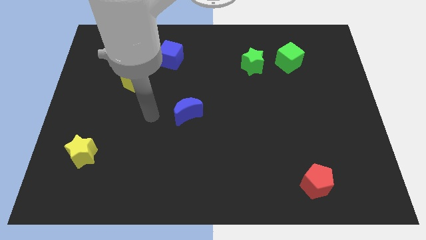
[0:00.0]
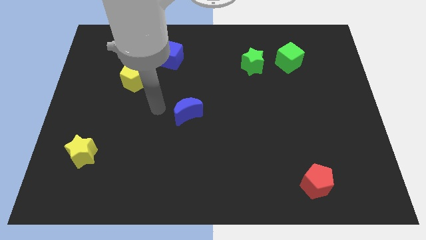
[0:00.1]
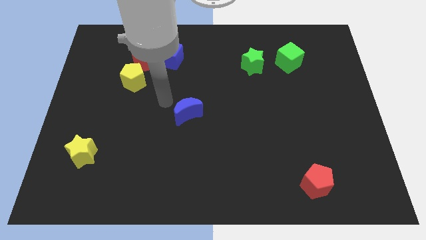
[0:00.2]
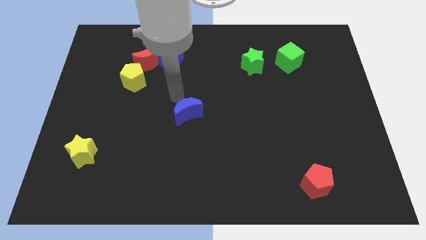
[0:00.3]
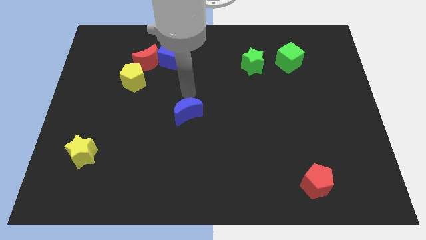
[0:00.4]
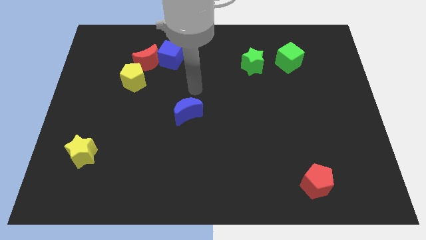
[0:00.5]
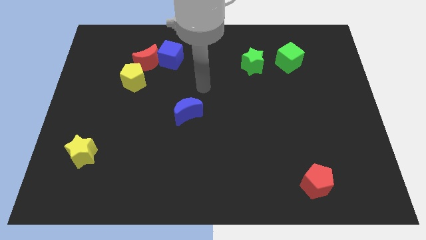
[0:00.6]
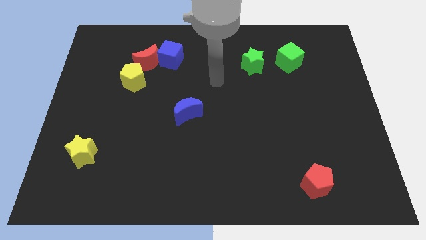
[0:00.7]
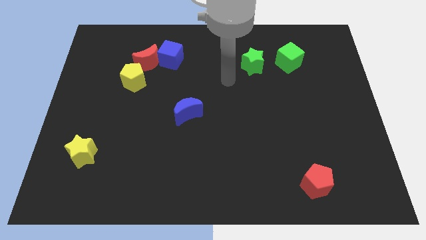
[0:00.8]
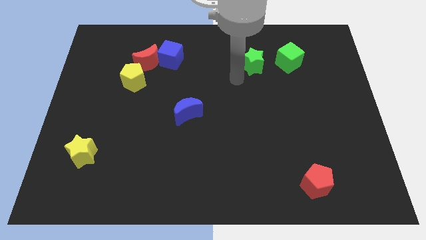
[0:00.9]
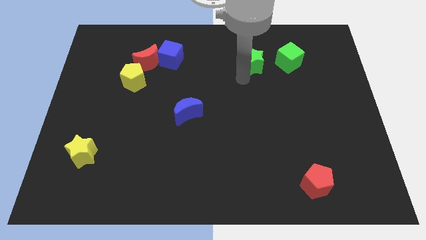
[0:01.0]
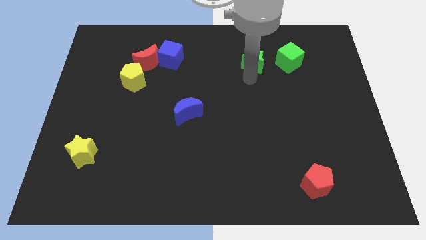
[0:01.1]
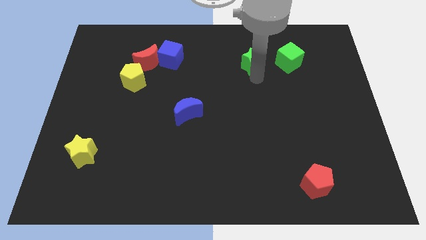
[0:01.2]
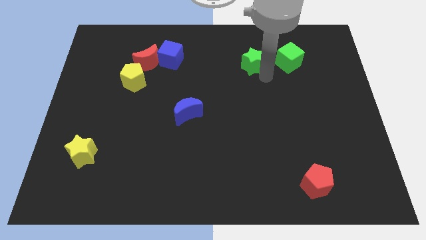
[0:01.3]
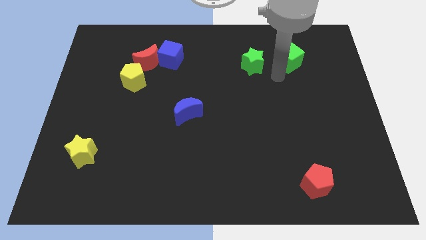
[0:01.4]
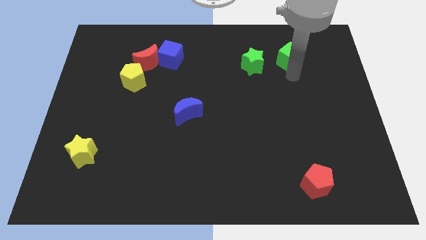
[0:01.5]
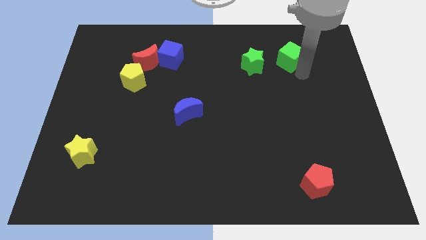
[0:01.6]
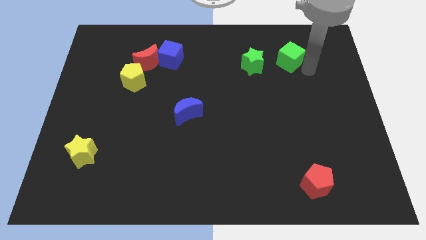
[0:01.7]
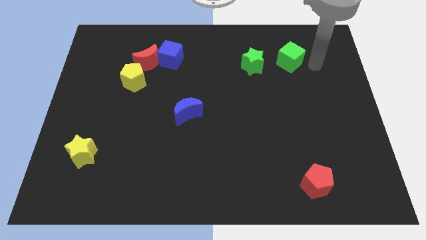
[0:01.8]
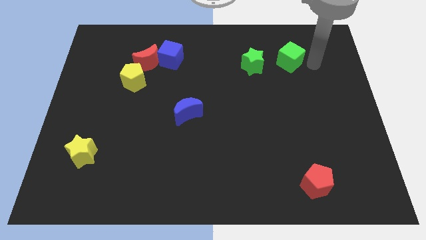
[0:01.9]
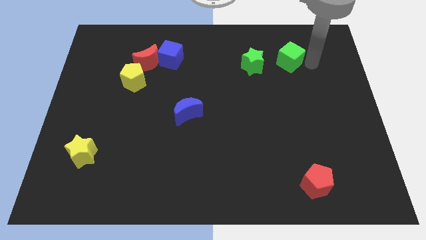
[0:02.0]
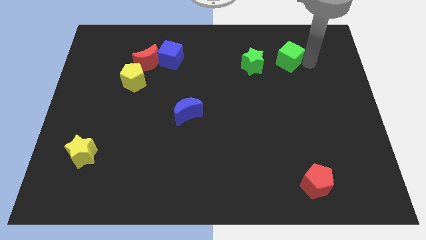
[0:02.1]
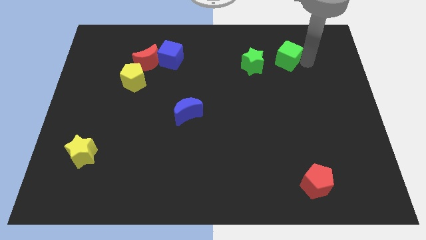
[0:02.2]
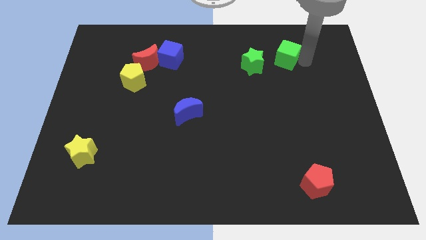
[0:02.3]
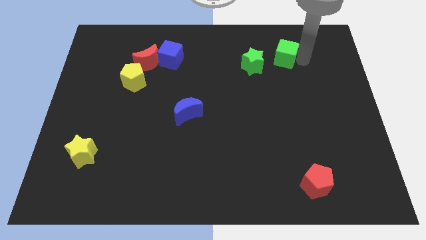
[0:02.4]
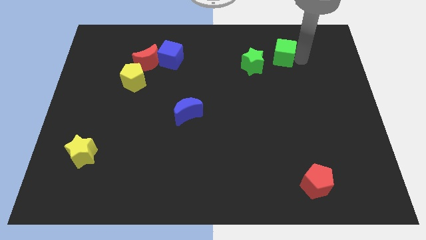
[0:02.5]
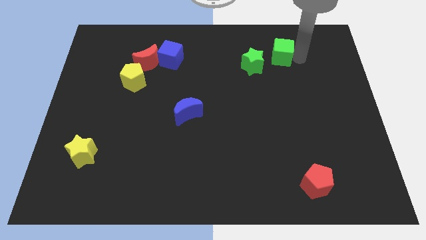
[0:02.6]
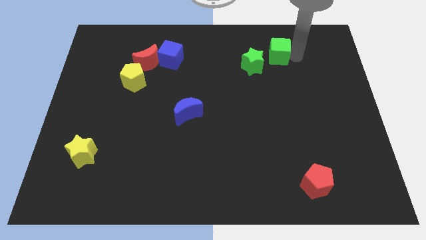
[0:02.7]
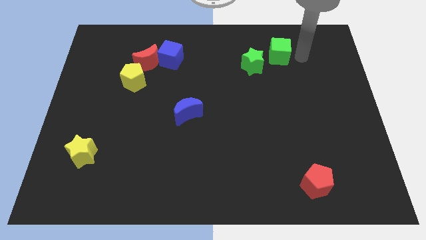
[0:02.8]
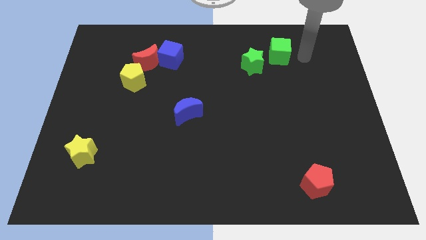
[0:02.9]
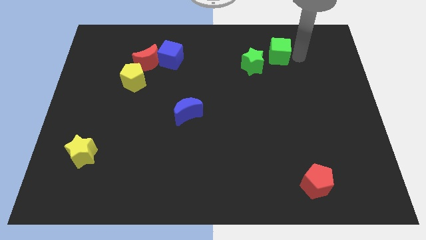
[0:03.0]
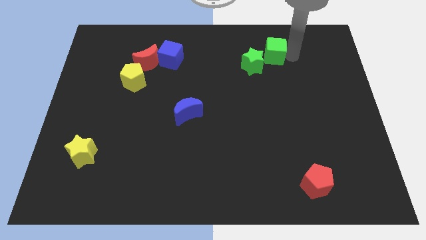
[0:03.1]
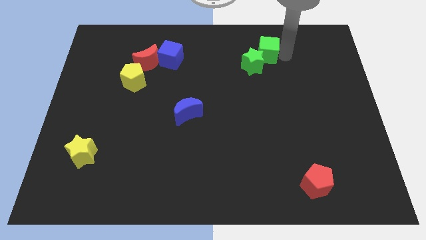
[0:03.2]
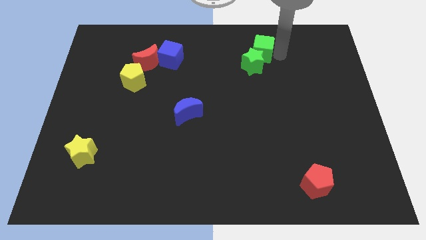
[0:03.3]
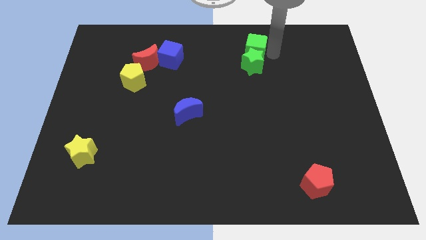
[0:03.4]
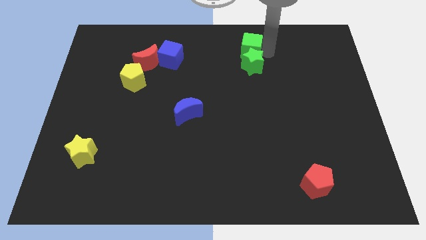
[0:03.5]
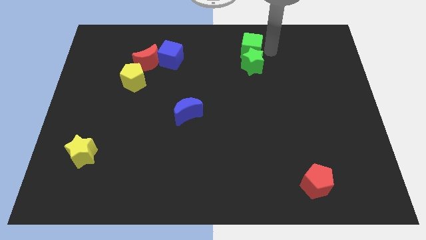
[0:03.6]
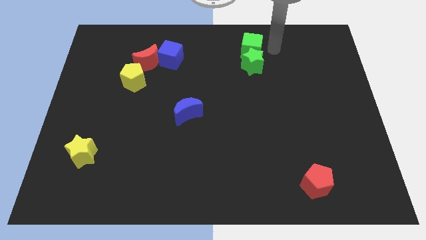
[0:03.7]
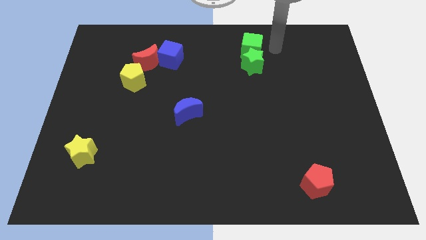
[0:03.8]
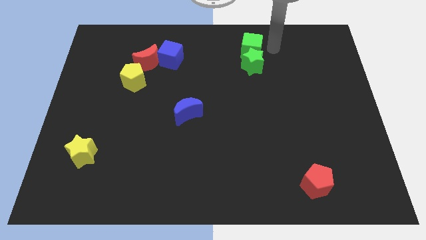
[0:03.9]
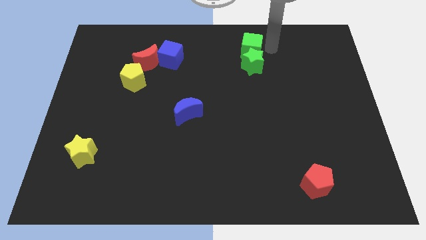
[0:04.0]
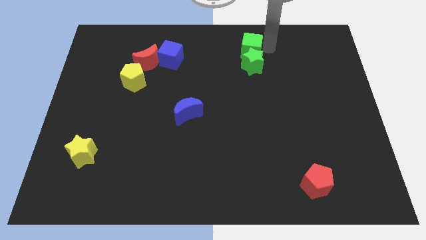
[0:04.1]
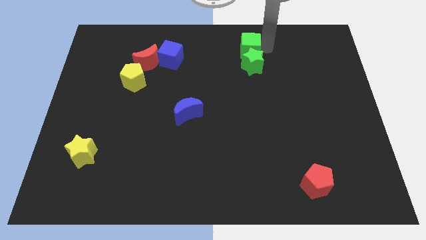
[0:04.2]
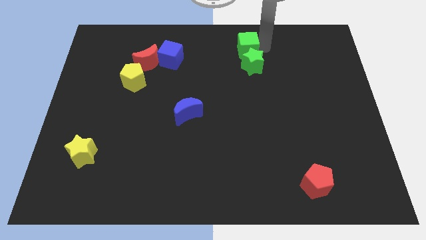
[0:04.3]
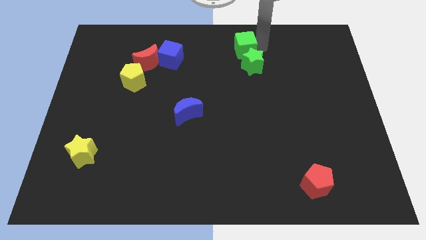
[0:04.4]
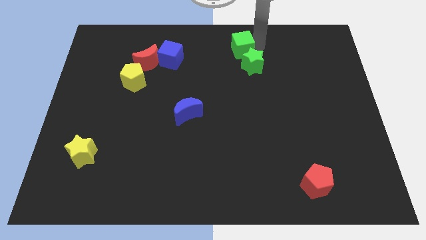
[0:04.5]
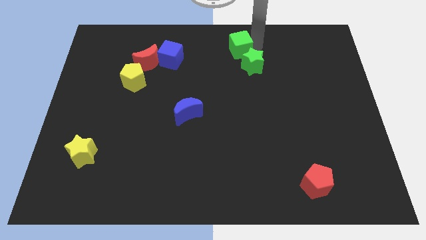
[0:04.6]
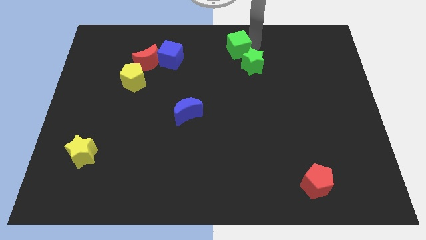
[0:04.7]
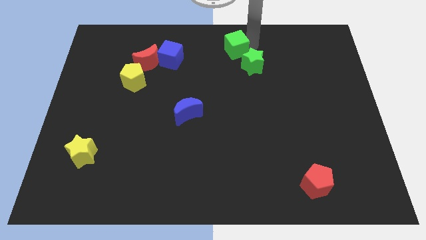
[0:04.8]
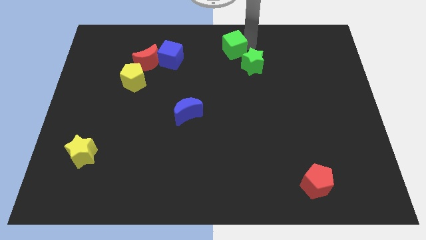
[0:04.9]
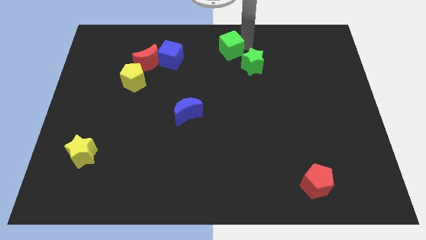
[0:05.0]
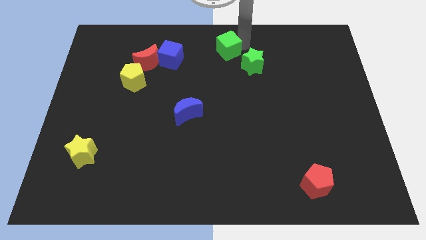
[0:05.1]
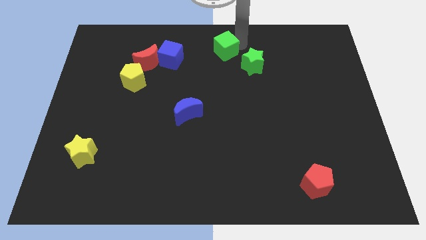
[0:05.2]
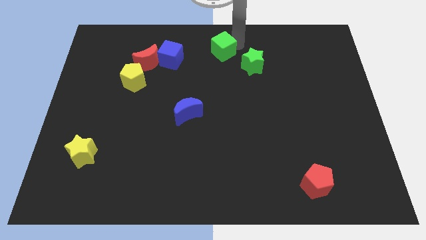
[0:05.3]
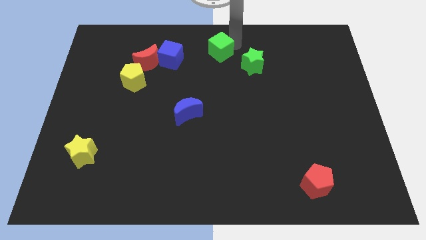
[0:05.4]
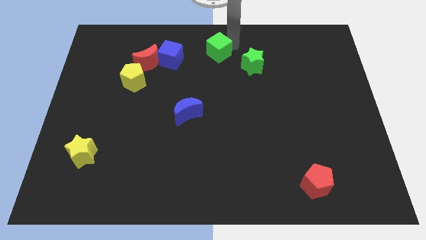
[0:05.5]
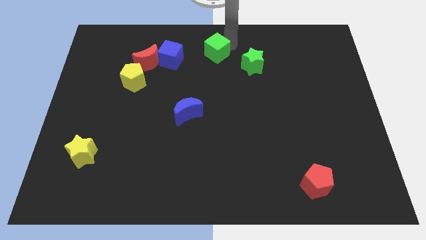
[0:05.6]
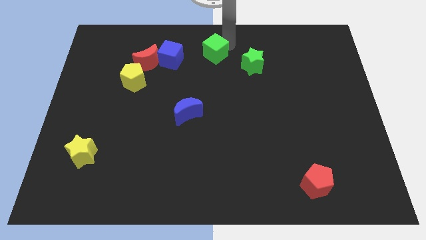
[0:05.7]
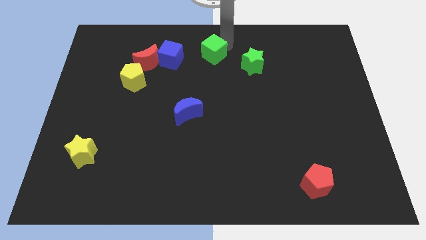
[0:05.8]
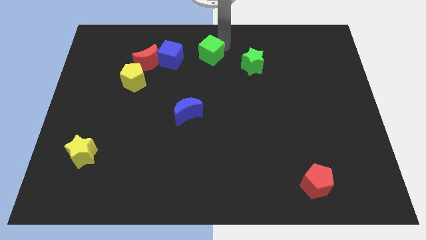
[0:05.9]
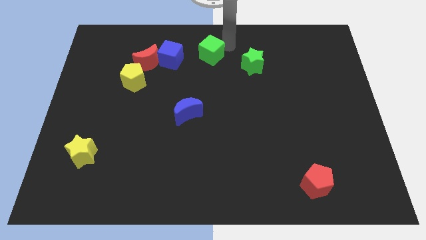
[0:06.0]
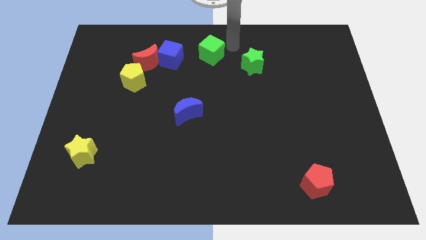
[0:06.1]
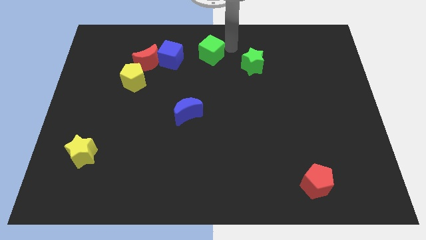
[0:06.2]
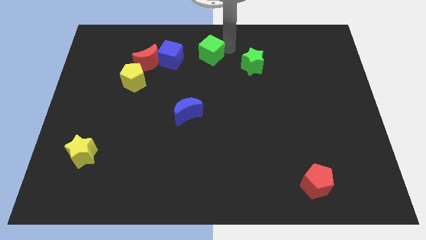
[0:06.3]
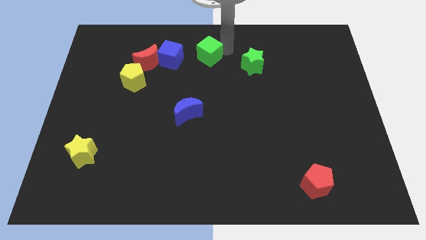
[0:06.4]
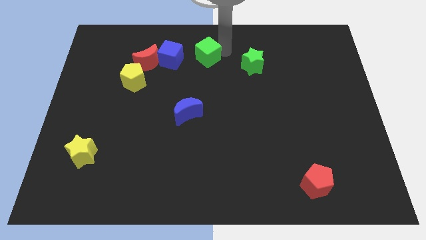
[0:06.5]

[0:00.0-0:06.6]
push the green cube just right of the red moon
